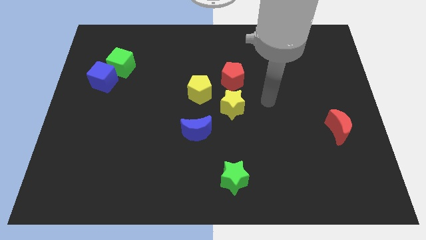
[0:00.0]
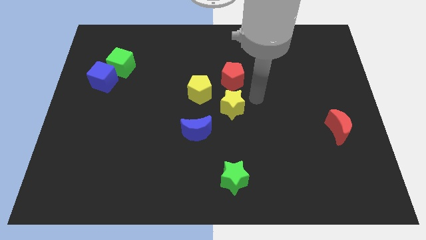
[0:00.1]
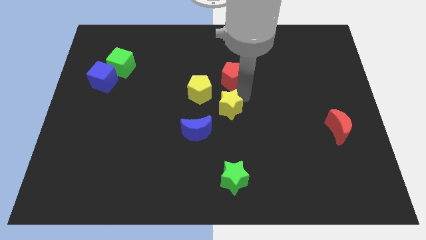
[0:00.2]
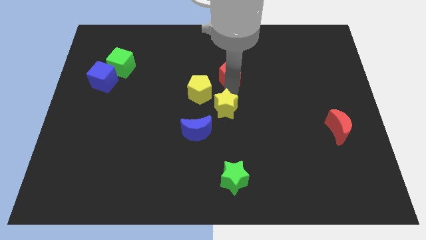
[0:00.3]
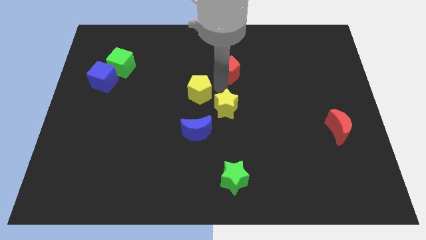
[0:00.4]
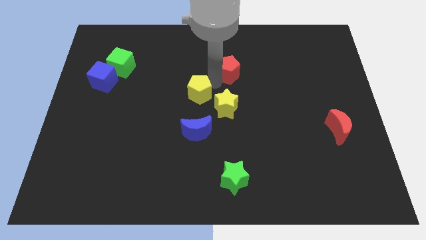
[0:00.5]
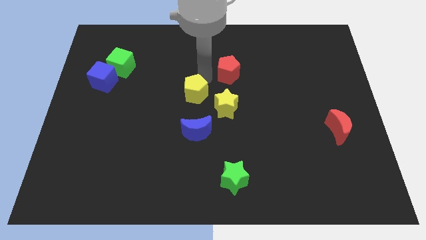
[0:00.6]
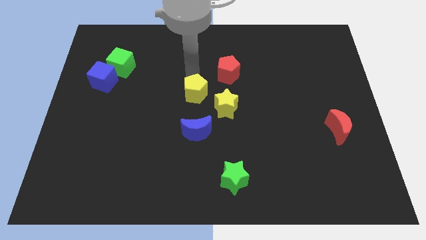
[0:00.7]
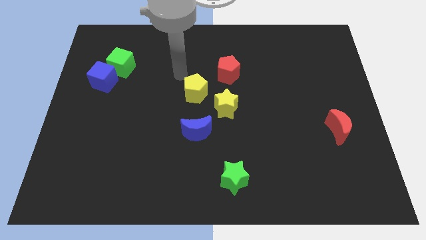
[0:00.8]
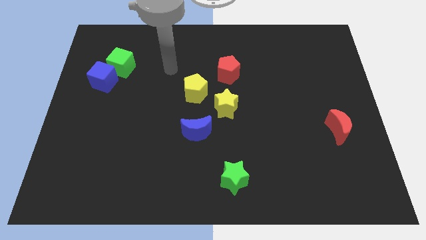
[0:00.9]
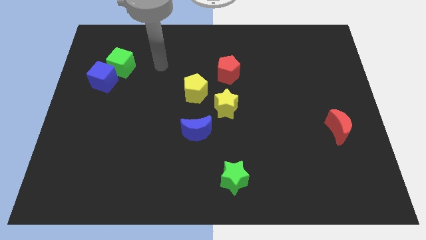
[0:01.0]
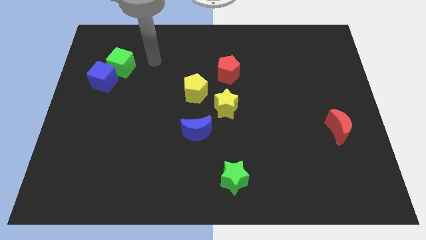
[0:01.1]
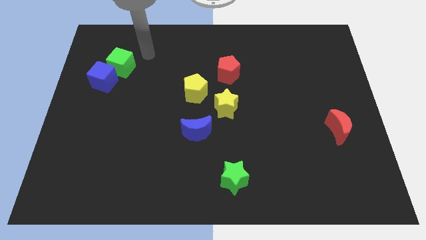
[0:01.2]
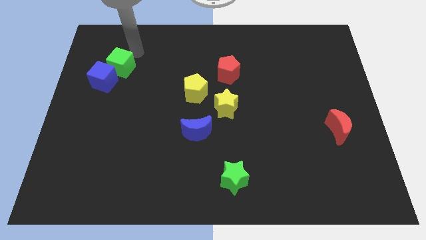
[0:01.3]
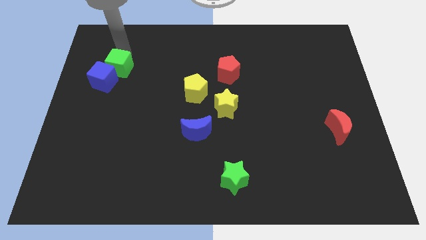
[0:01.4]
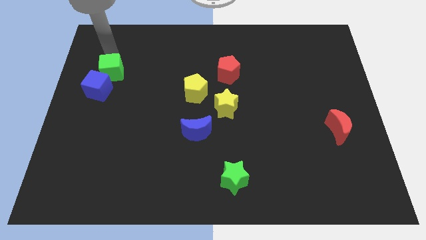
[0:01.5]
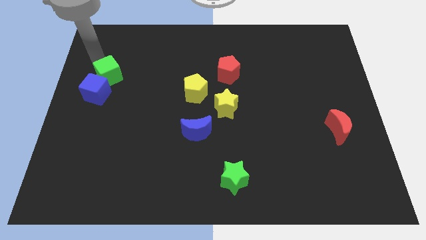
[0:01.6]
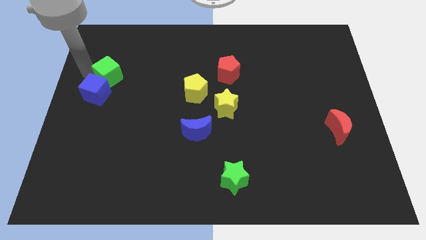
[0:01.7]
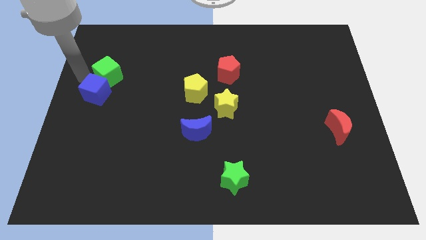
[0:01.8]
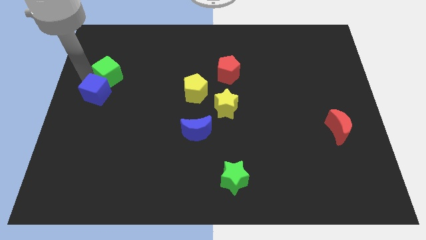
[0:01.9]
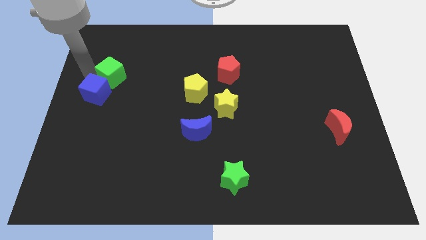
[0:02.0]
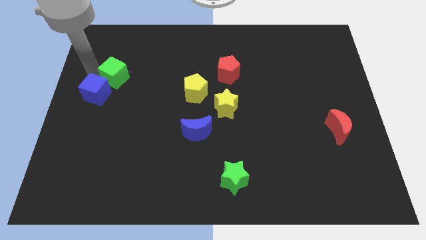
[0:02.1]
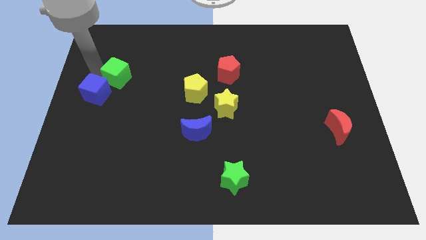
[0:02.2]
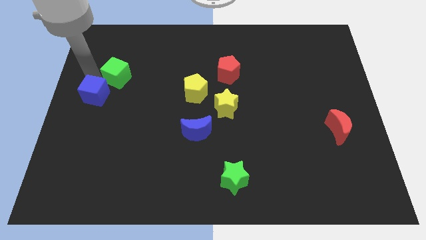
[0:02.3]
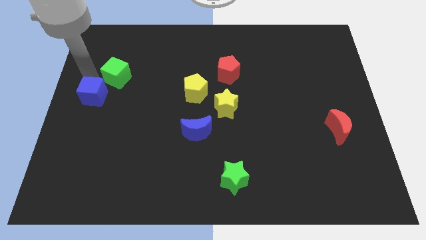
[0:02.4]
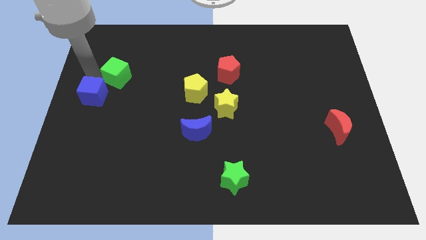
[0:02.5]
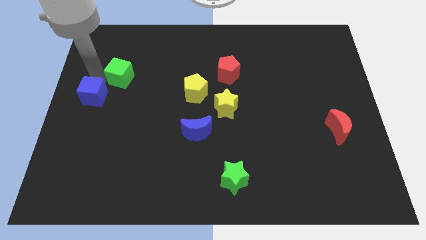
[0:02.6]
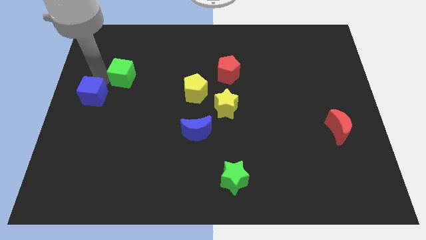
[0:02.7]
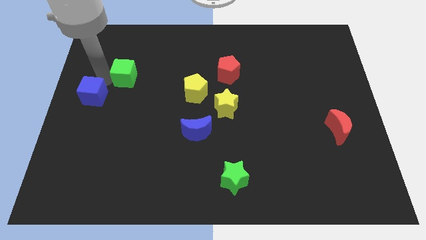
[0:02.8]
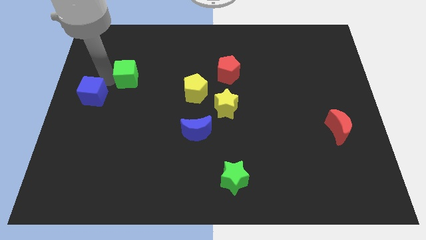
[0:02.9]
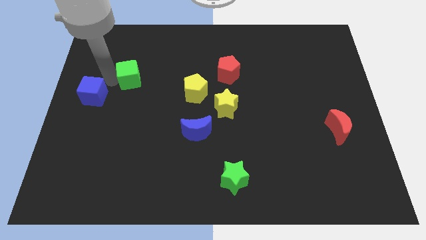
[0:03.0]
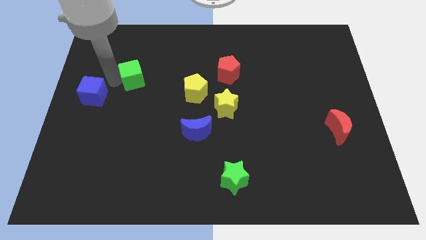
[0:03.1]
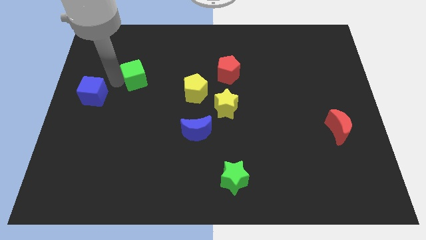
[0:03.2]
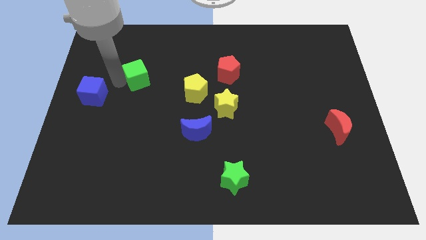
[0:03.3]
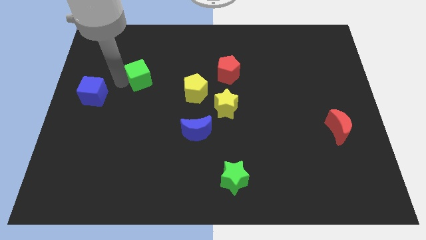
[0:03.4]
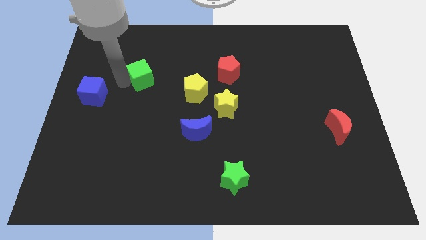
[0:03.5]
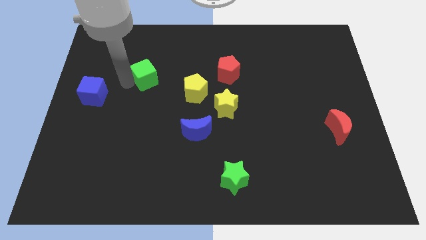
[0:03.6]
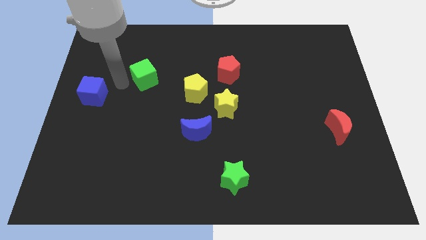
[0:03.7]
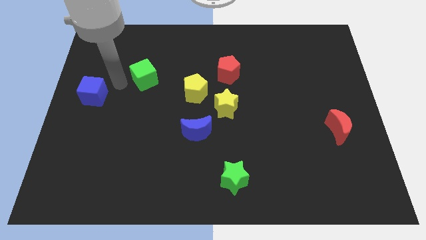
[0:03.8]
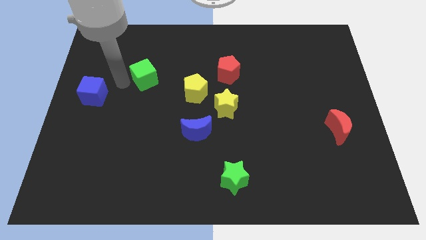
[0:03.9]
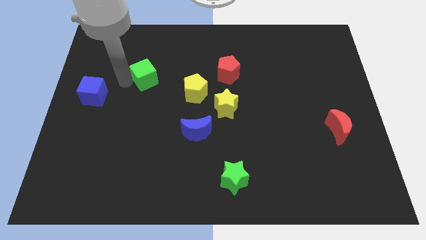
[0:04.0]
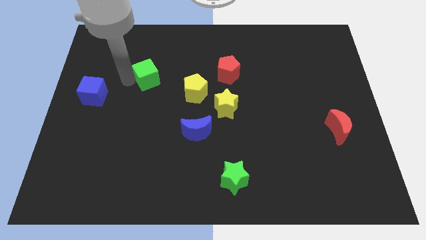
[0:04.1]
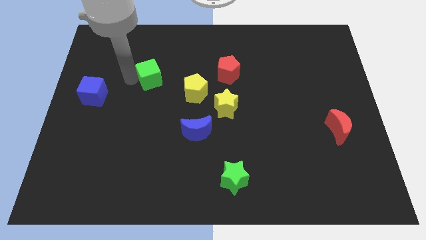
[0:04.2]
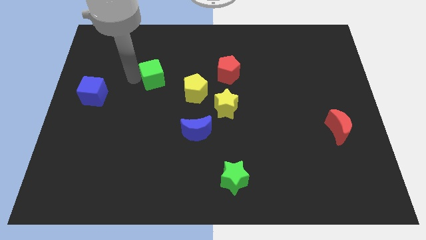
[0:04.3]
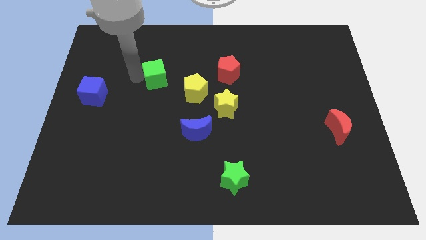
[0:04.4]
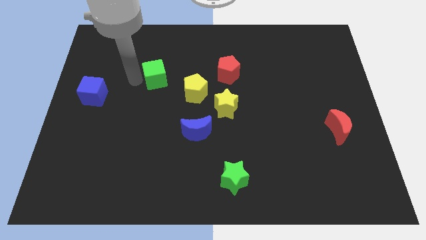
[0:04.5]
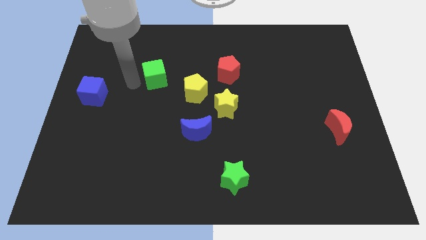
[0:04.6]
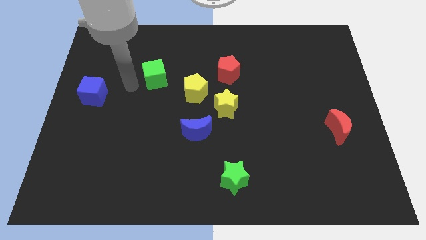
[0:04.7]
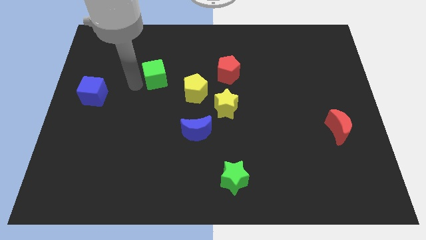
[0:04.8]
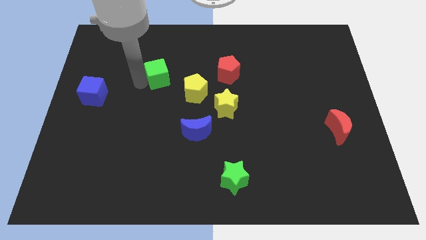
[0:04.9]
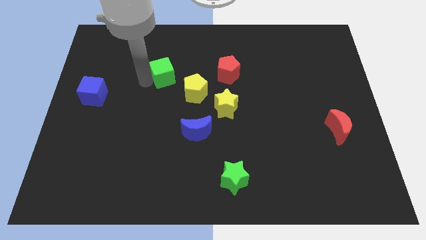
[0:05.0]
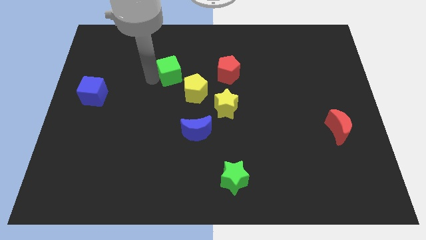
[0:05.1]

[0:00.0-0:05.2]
put the green cube to the left side of the red pentagon

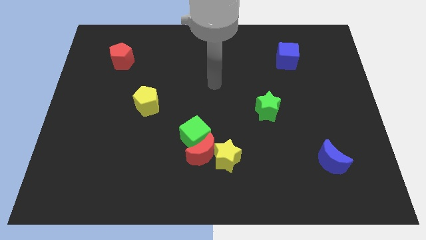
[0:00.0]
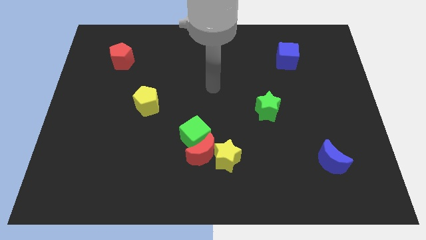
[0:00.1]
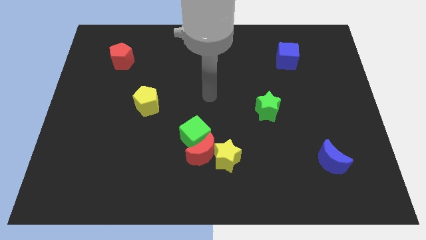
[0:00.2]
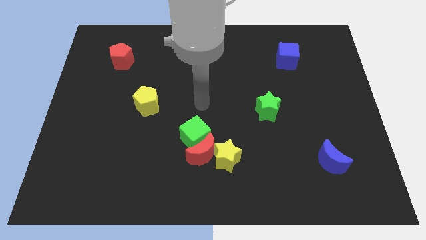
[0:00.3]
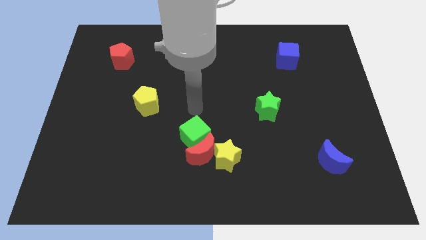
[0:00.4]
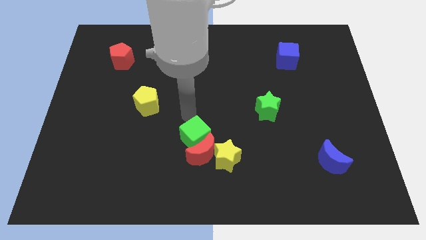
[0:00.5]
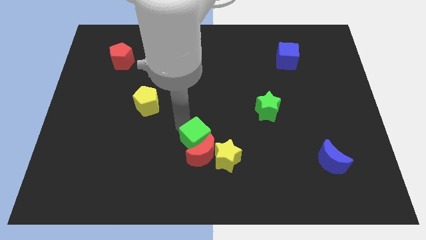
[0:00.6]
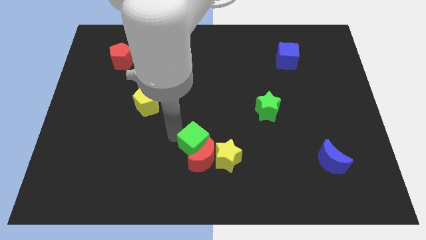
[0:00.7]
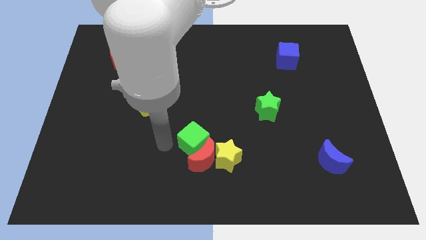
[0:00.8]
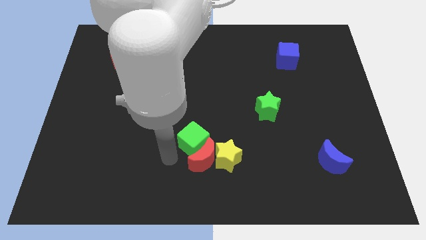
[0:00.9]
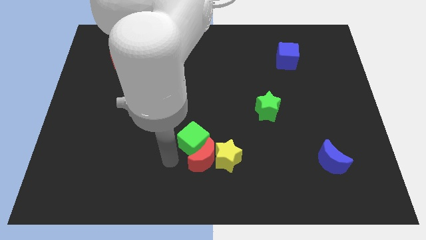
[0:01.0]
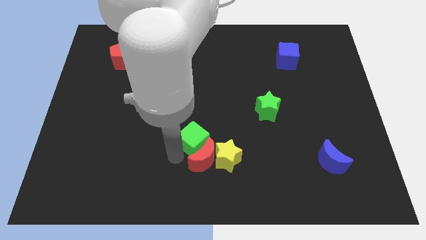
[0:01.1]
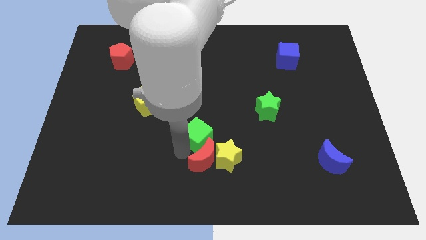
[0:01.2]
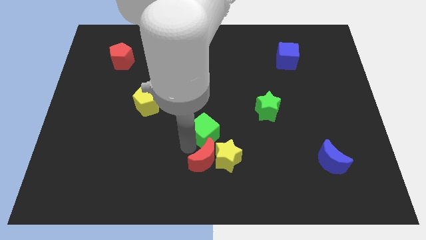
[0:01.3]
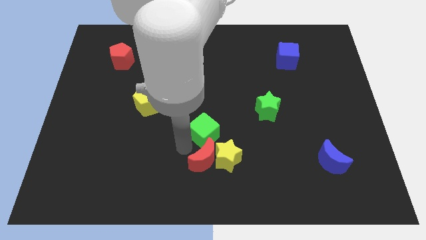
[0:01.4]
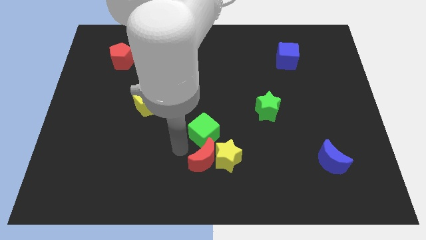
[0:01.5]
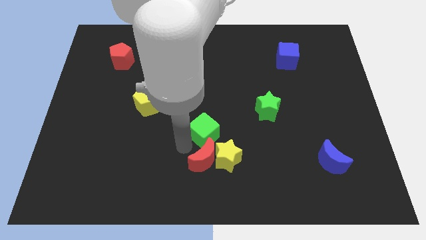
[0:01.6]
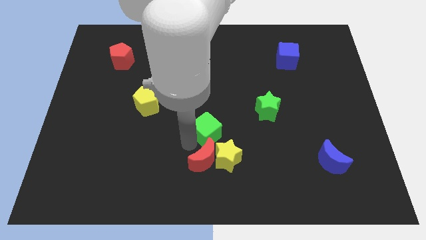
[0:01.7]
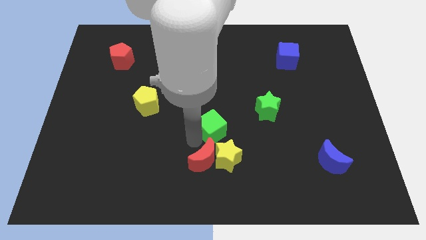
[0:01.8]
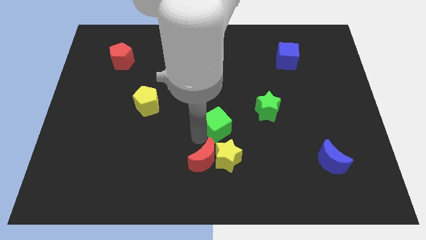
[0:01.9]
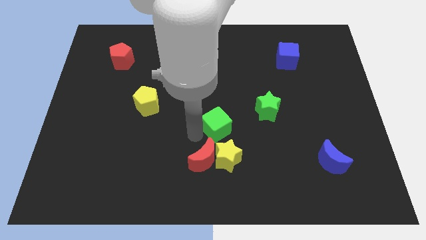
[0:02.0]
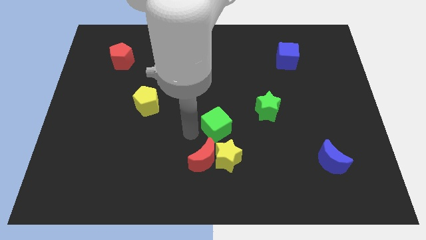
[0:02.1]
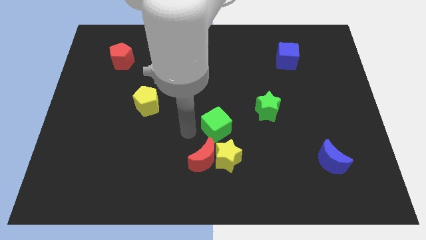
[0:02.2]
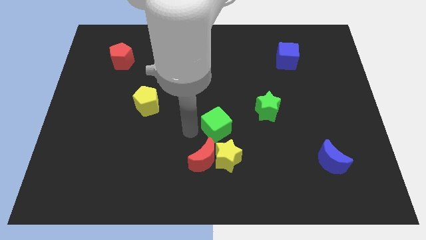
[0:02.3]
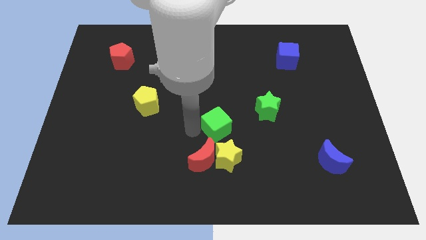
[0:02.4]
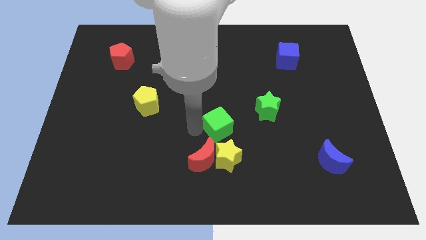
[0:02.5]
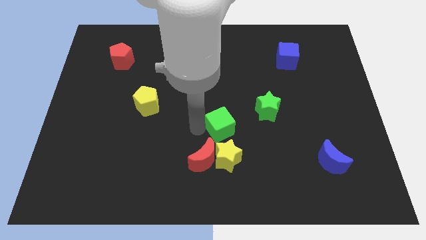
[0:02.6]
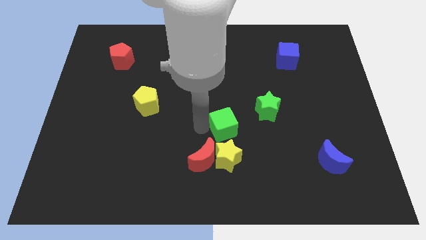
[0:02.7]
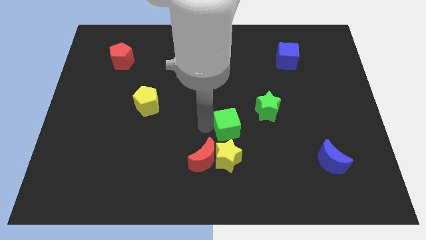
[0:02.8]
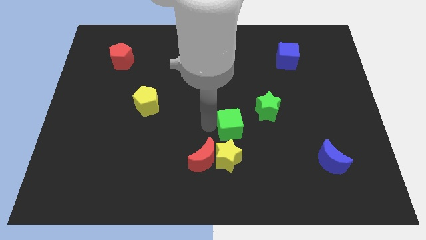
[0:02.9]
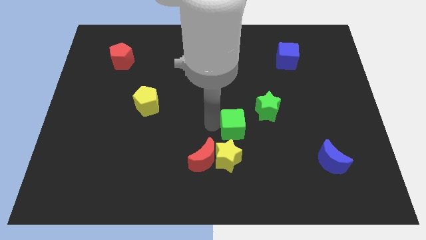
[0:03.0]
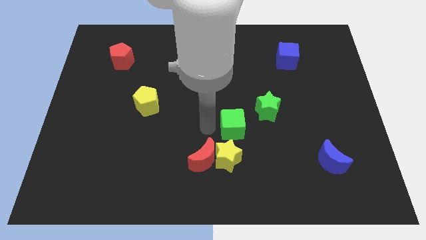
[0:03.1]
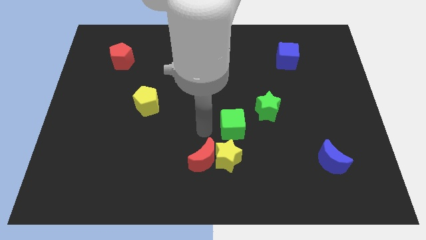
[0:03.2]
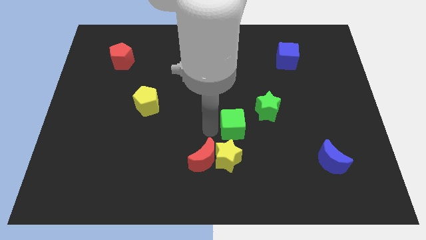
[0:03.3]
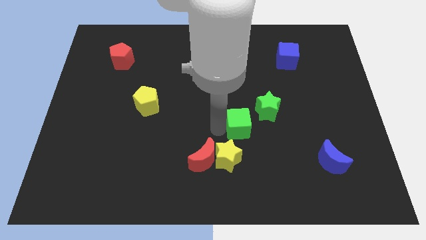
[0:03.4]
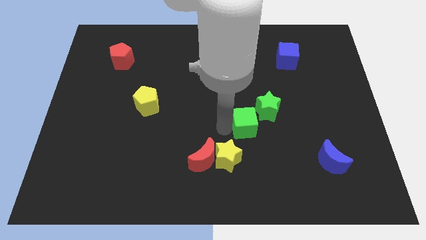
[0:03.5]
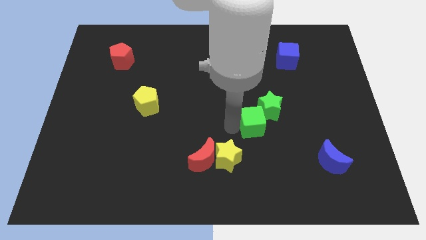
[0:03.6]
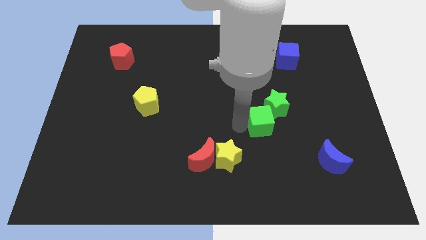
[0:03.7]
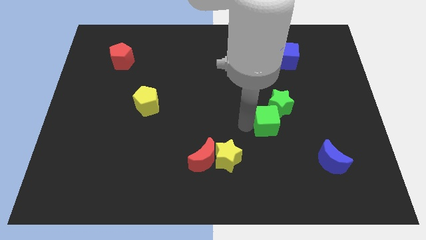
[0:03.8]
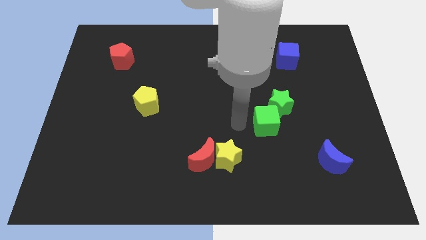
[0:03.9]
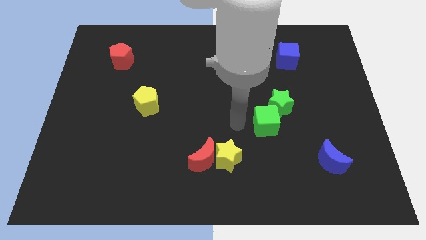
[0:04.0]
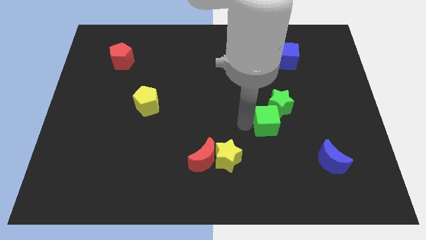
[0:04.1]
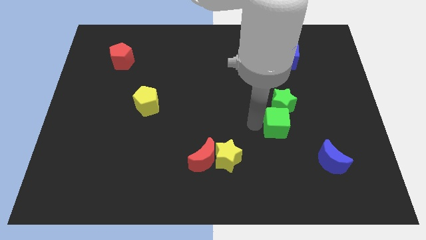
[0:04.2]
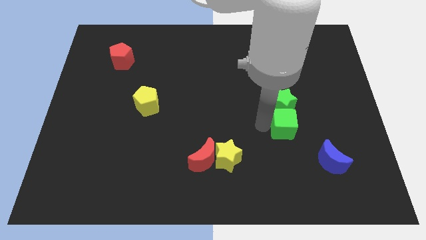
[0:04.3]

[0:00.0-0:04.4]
put the green cube to the bottom right side of the green star
